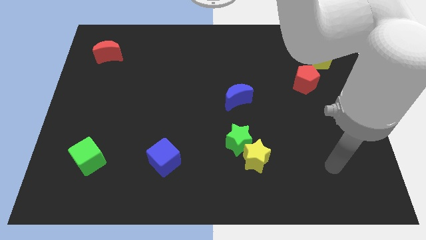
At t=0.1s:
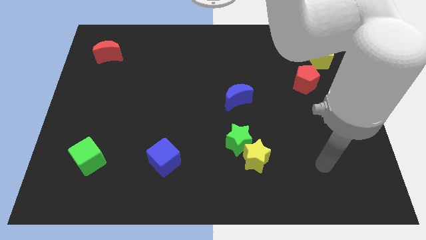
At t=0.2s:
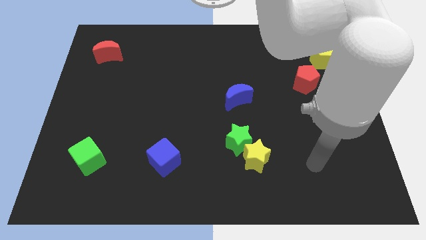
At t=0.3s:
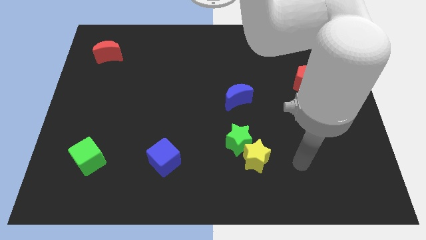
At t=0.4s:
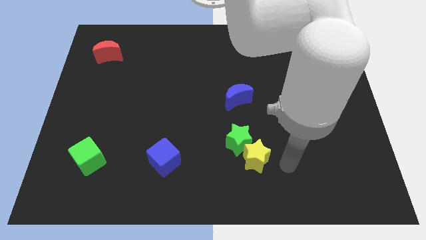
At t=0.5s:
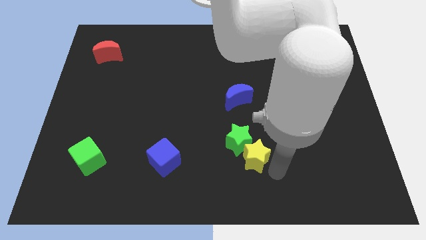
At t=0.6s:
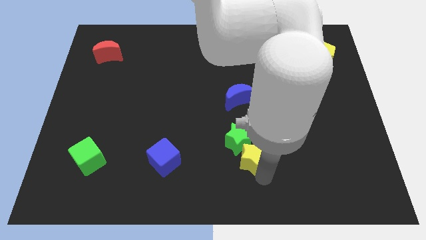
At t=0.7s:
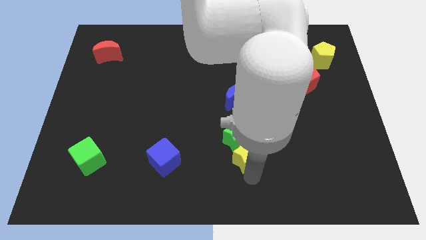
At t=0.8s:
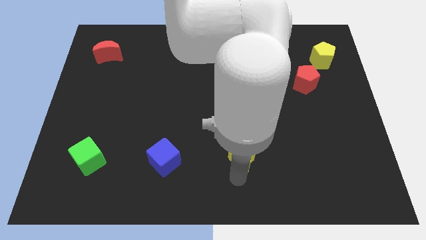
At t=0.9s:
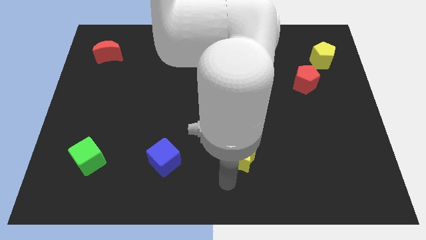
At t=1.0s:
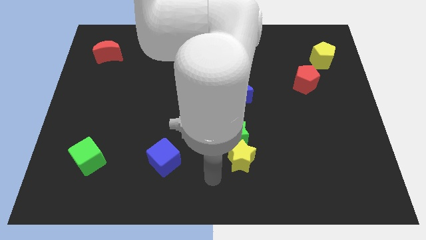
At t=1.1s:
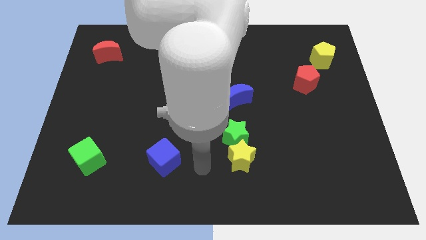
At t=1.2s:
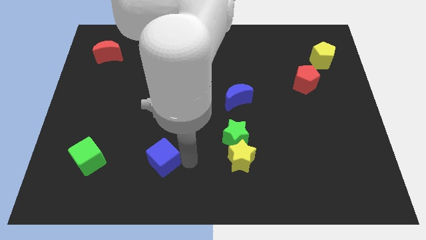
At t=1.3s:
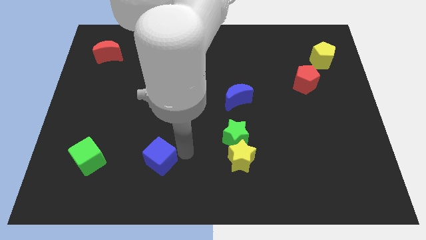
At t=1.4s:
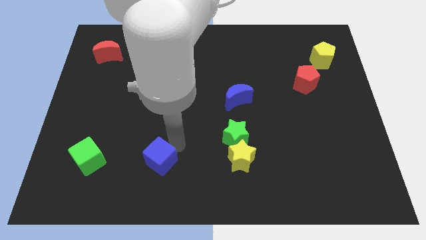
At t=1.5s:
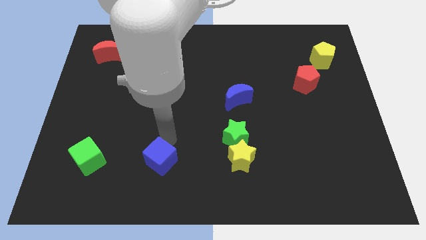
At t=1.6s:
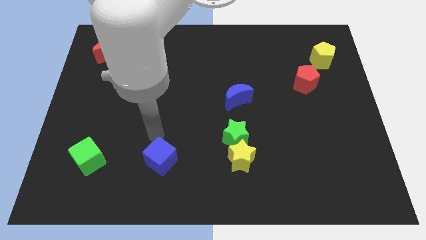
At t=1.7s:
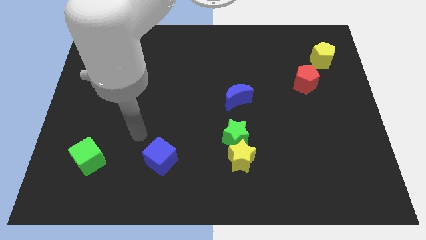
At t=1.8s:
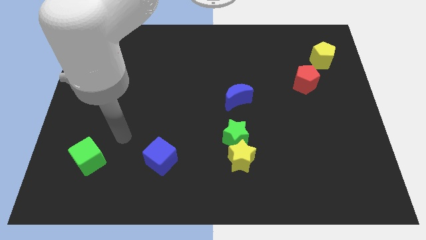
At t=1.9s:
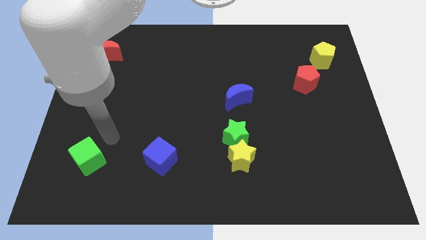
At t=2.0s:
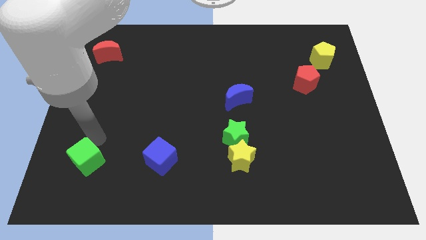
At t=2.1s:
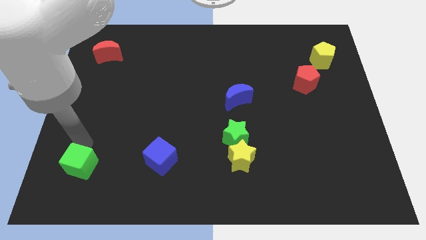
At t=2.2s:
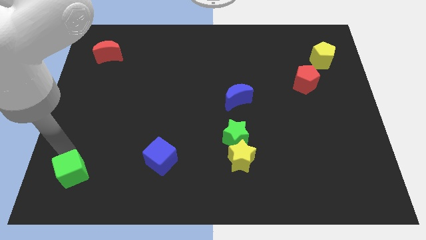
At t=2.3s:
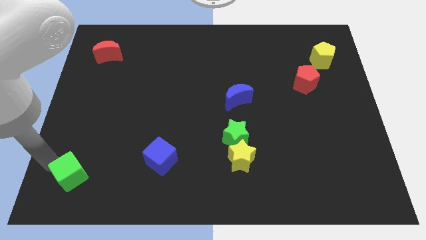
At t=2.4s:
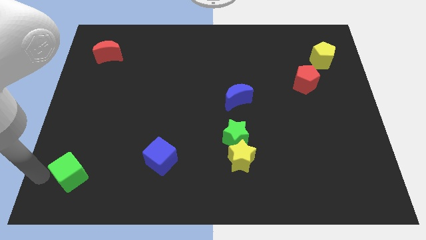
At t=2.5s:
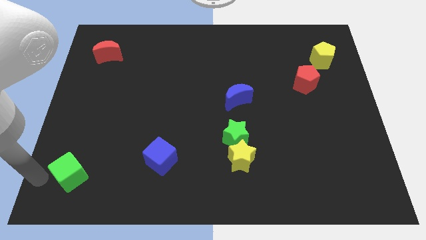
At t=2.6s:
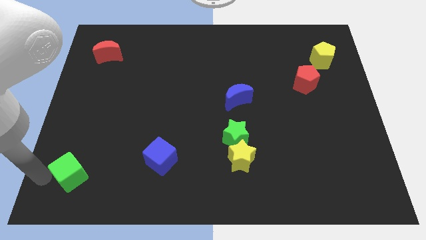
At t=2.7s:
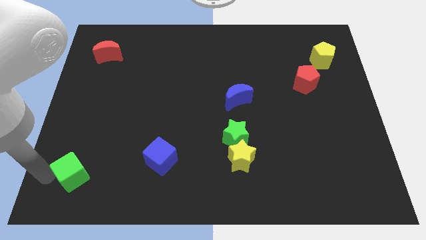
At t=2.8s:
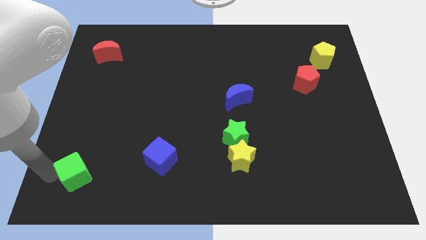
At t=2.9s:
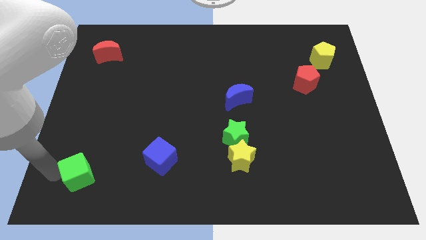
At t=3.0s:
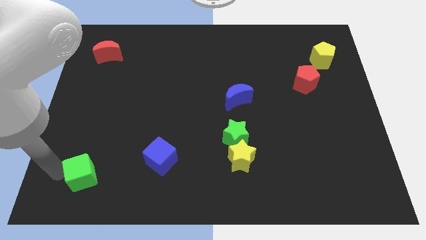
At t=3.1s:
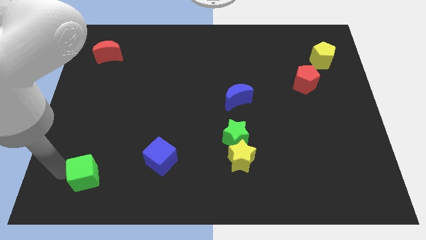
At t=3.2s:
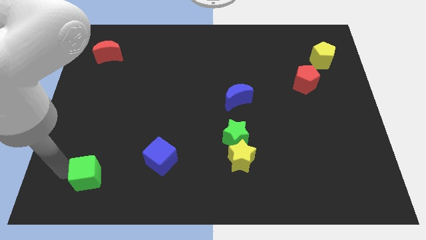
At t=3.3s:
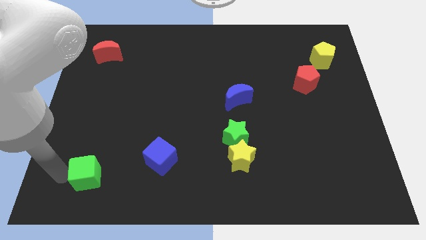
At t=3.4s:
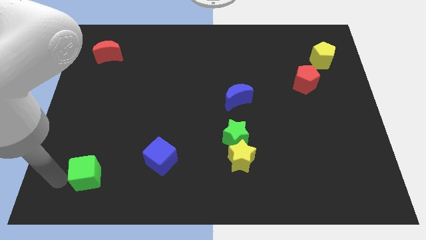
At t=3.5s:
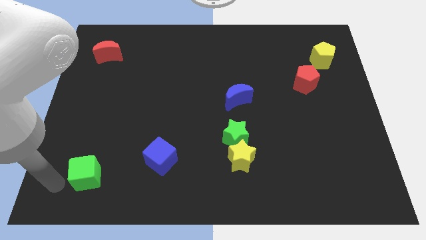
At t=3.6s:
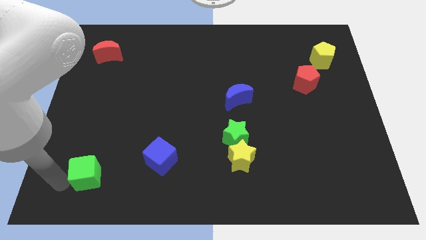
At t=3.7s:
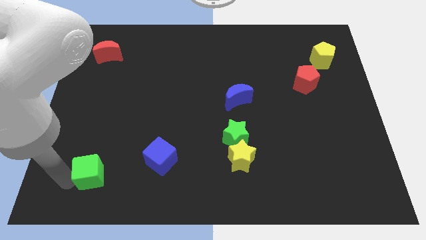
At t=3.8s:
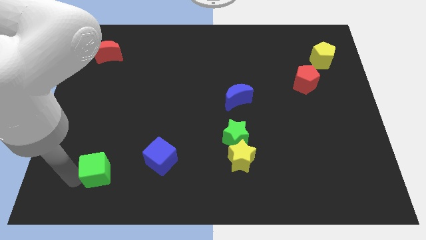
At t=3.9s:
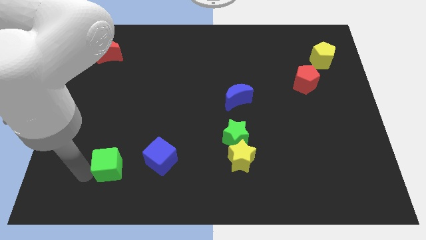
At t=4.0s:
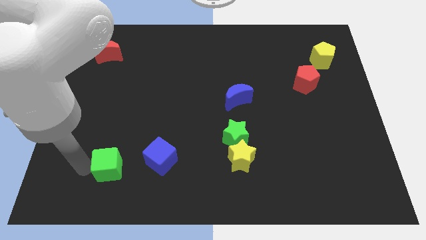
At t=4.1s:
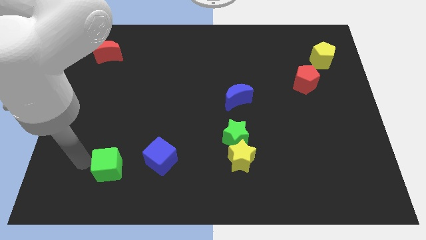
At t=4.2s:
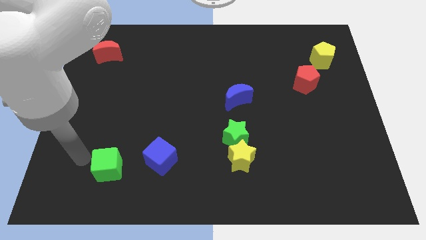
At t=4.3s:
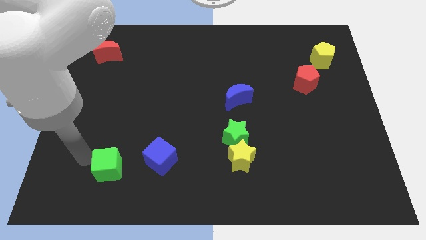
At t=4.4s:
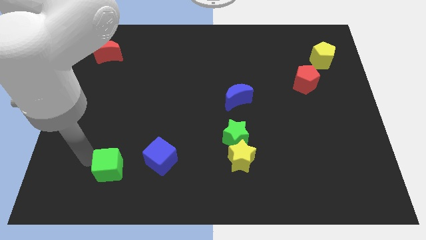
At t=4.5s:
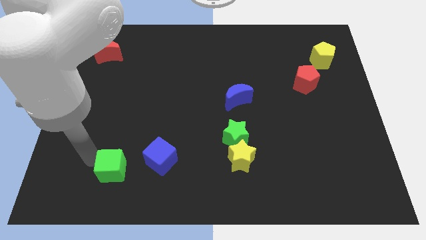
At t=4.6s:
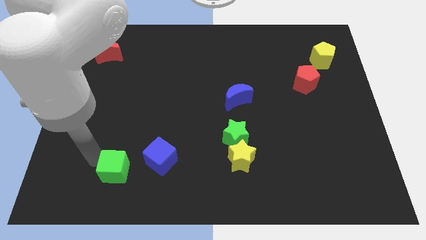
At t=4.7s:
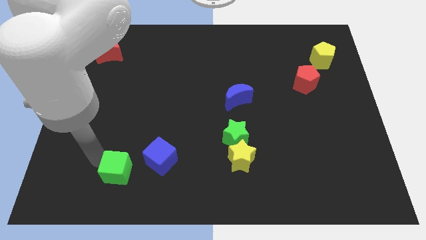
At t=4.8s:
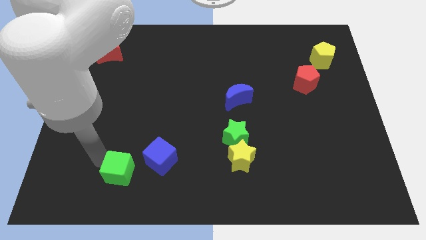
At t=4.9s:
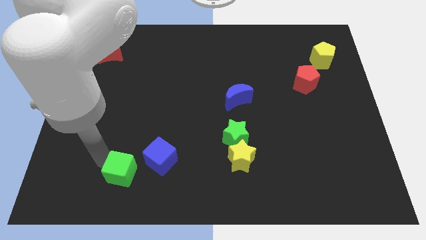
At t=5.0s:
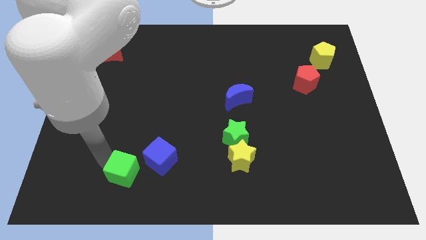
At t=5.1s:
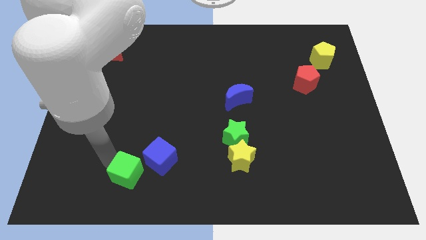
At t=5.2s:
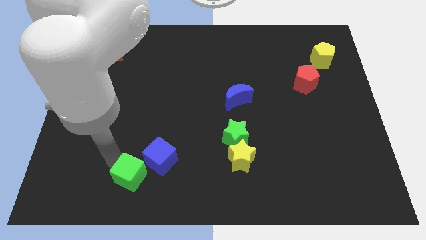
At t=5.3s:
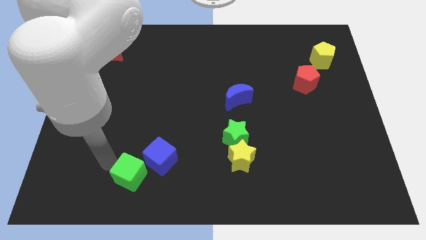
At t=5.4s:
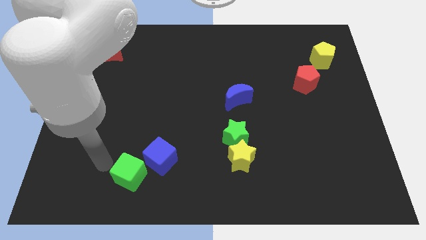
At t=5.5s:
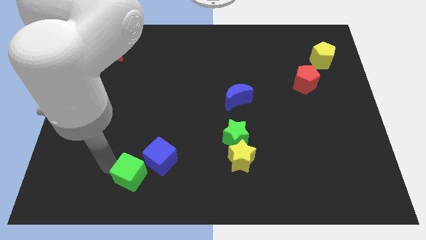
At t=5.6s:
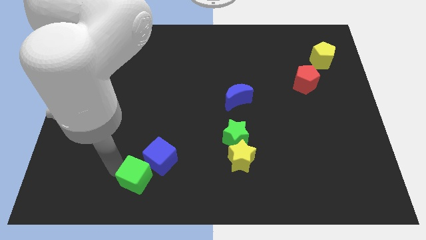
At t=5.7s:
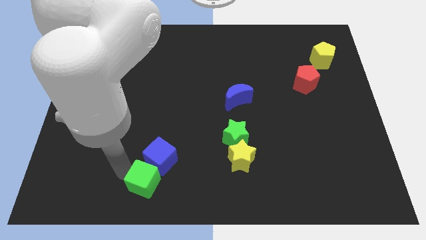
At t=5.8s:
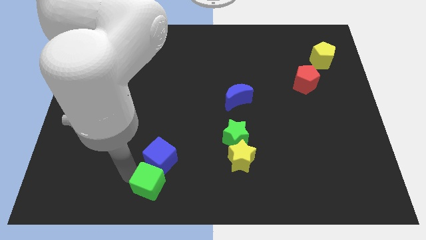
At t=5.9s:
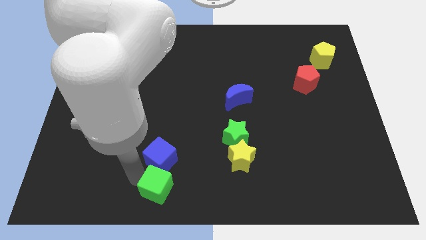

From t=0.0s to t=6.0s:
move the green cube to the bottom side

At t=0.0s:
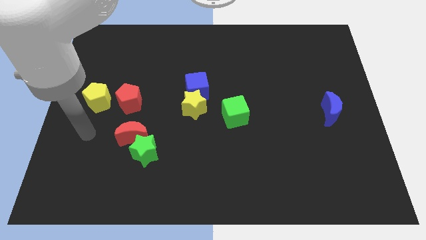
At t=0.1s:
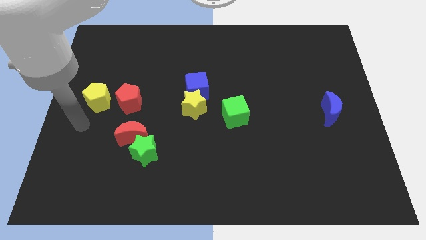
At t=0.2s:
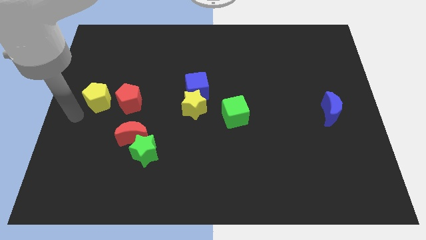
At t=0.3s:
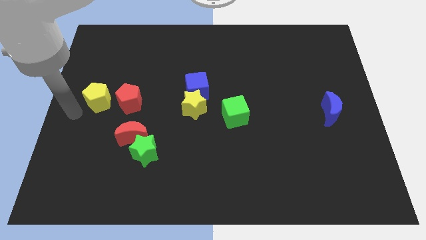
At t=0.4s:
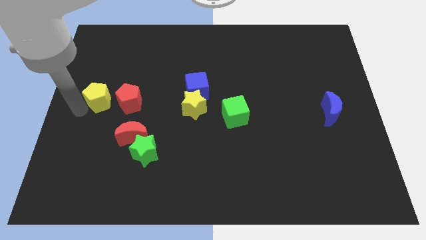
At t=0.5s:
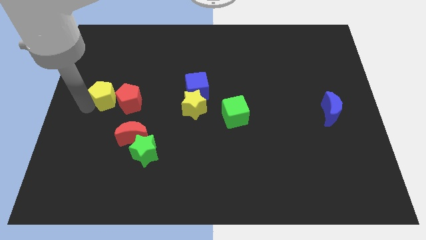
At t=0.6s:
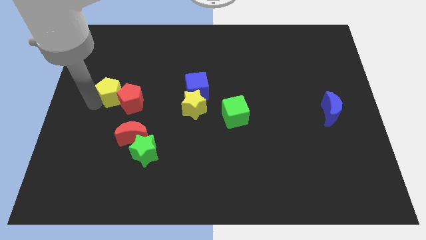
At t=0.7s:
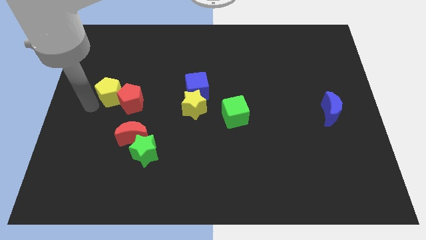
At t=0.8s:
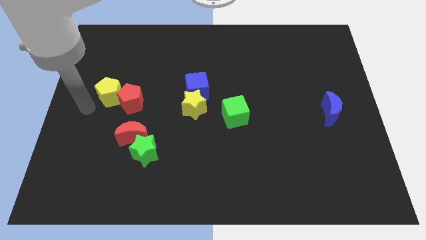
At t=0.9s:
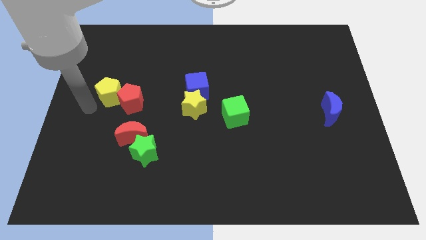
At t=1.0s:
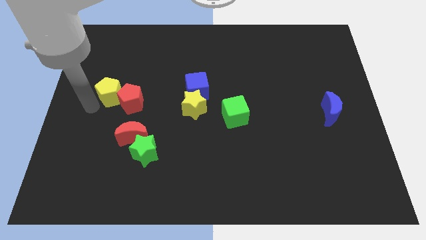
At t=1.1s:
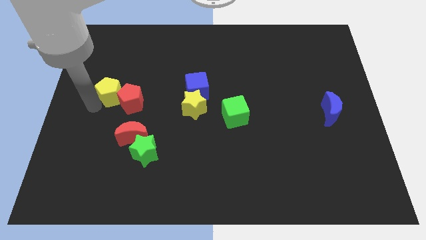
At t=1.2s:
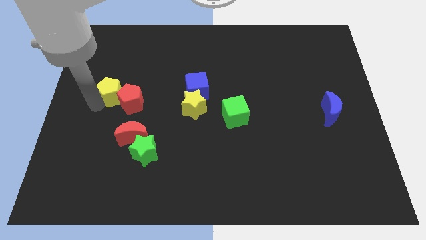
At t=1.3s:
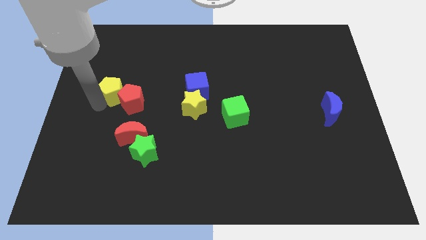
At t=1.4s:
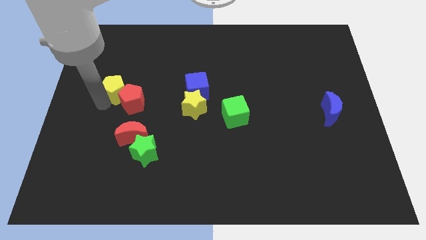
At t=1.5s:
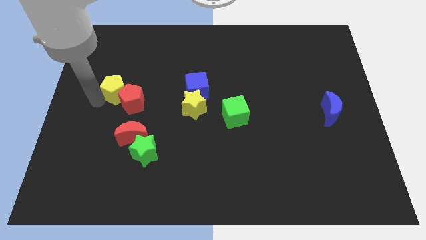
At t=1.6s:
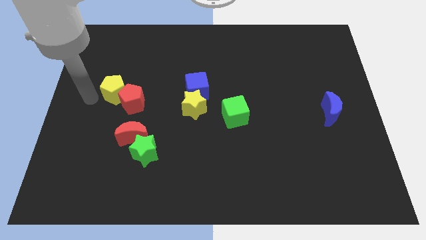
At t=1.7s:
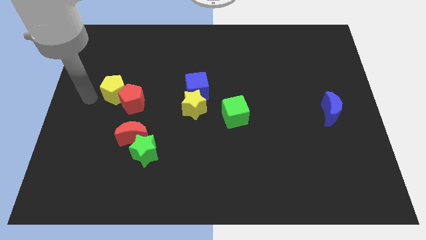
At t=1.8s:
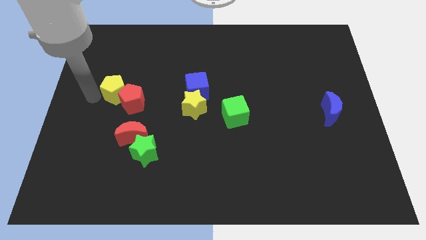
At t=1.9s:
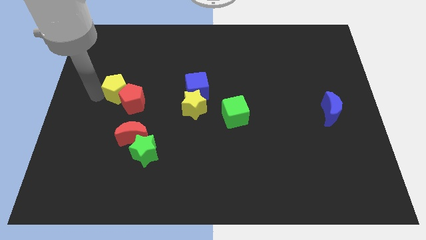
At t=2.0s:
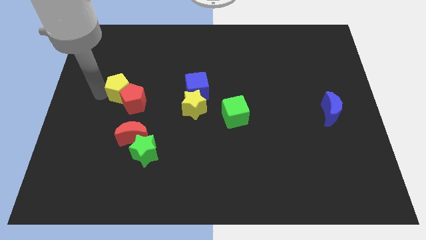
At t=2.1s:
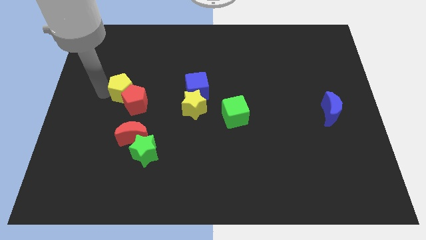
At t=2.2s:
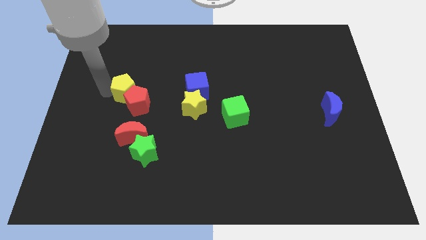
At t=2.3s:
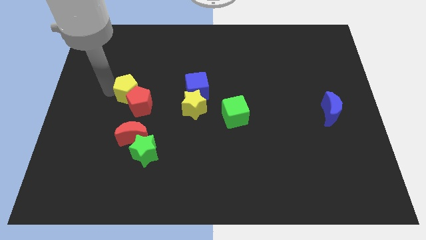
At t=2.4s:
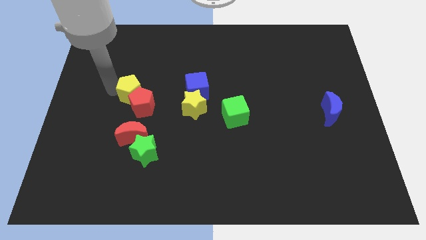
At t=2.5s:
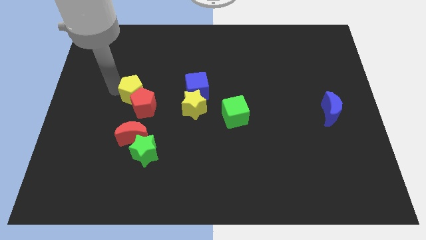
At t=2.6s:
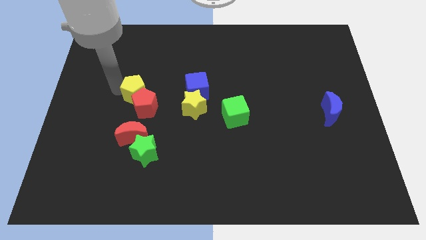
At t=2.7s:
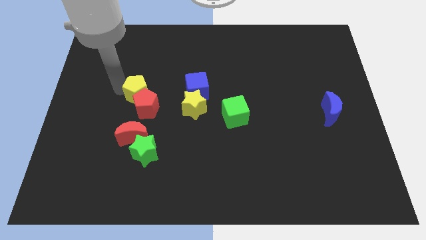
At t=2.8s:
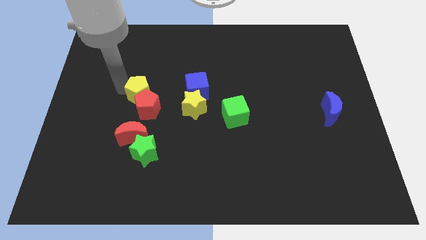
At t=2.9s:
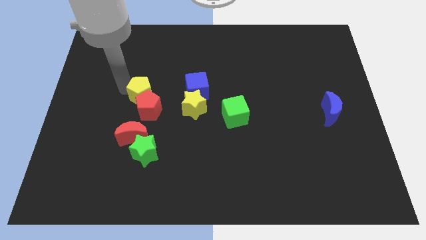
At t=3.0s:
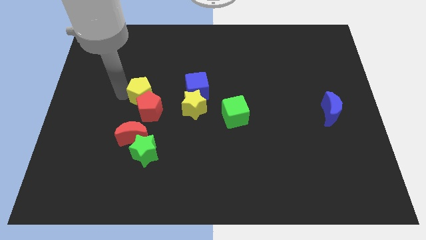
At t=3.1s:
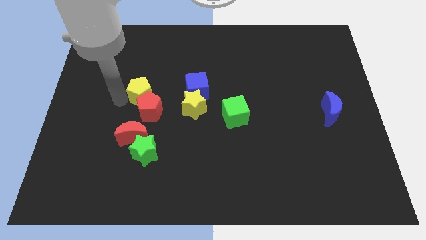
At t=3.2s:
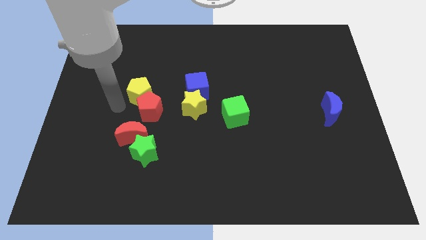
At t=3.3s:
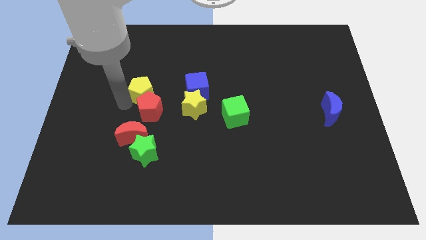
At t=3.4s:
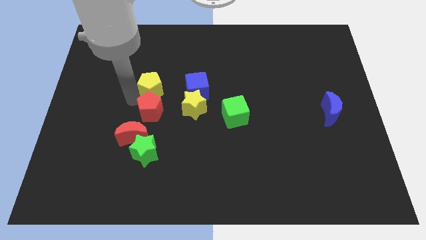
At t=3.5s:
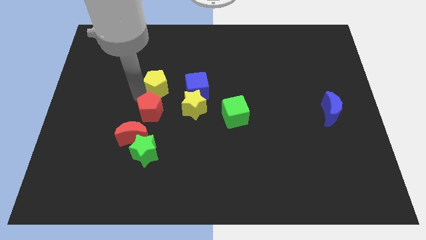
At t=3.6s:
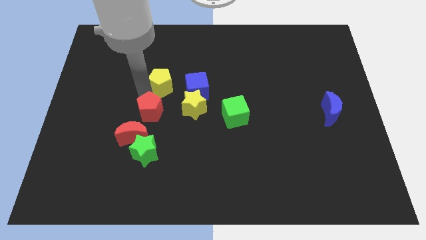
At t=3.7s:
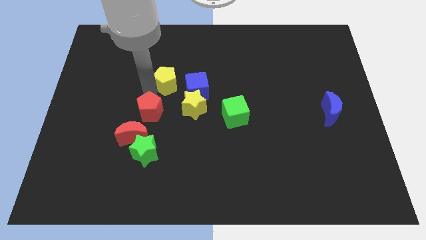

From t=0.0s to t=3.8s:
put the yellow pentagon to the center
